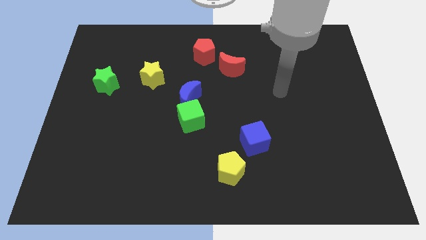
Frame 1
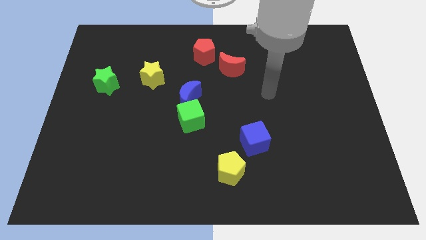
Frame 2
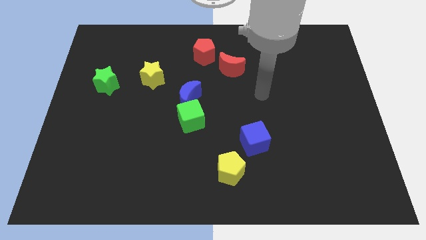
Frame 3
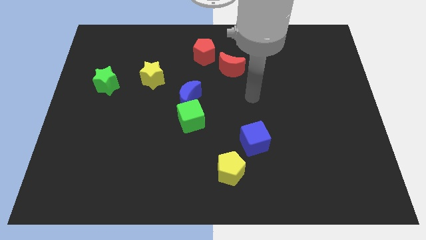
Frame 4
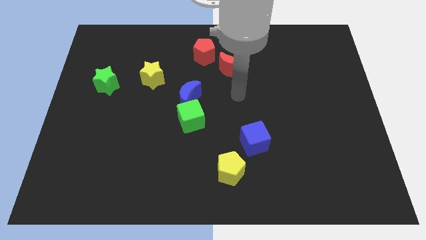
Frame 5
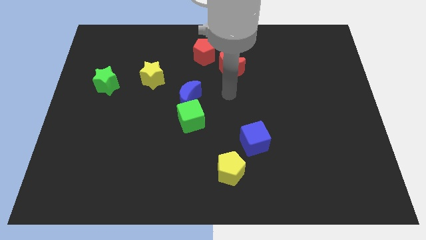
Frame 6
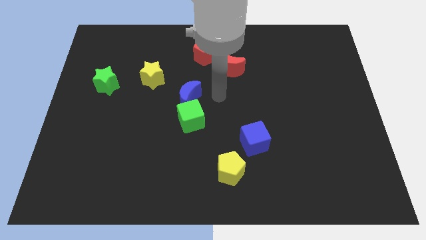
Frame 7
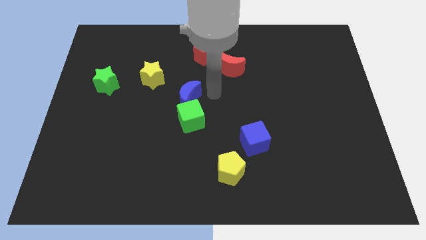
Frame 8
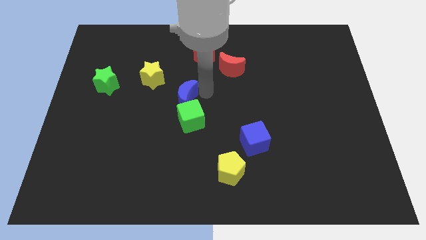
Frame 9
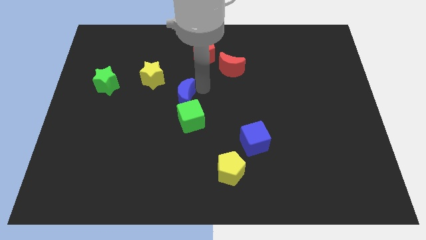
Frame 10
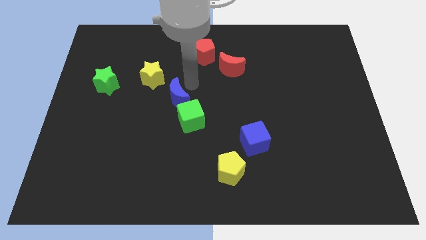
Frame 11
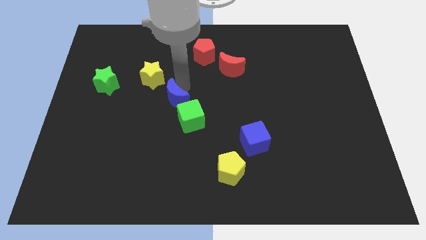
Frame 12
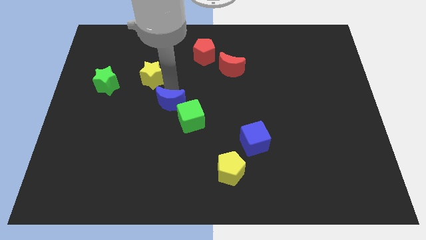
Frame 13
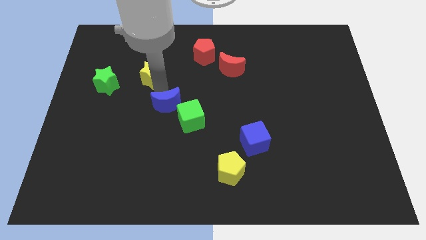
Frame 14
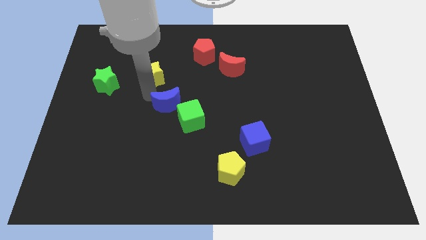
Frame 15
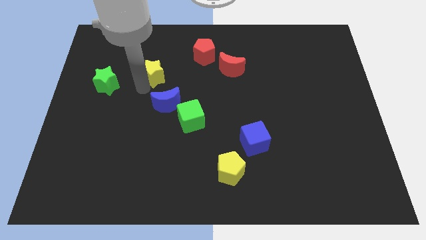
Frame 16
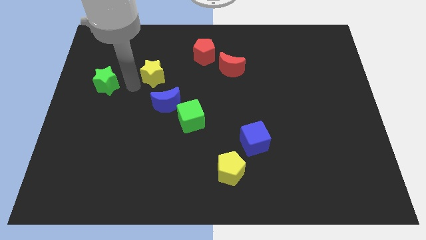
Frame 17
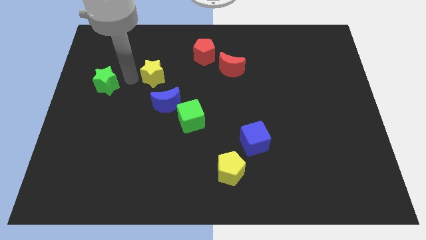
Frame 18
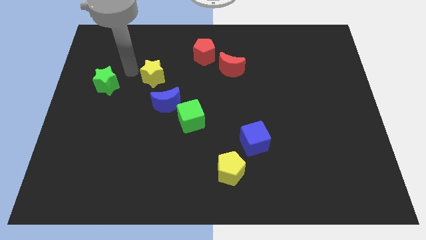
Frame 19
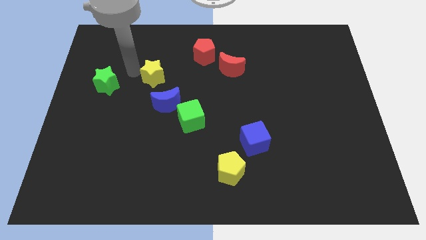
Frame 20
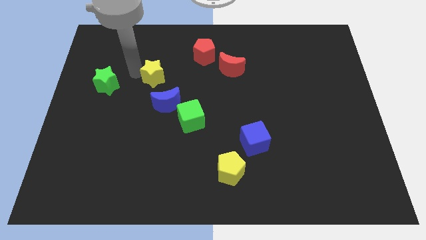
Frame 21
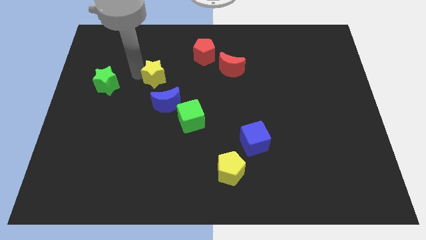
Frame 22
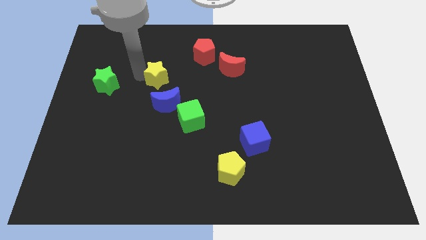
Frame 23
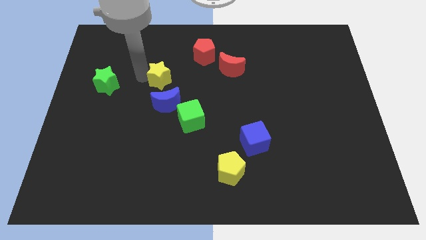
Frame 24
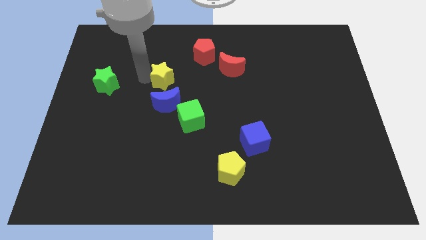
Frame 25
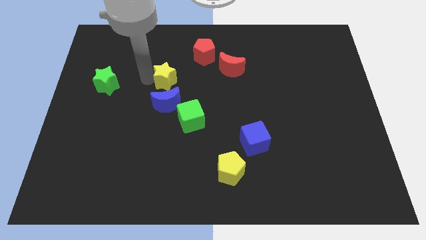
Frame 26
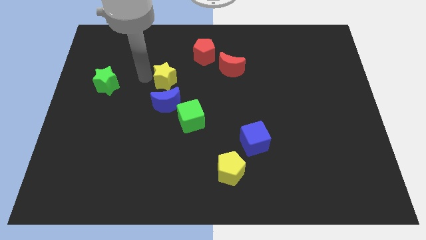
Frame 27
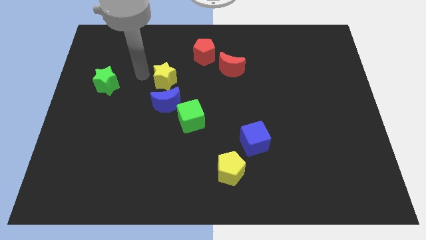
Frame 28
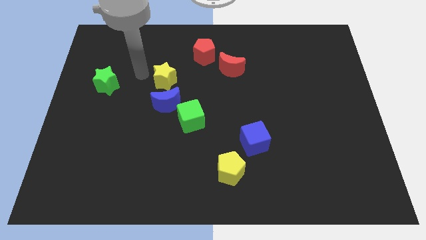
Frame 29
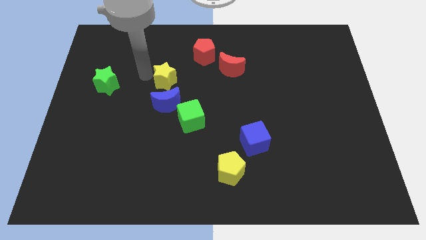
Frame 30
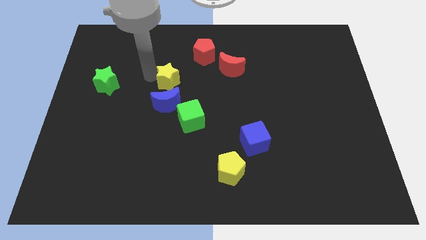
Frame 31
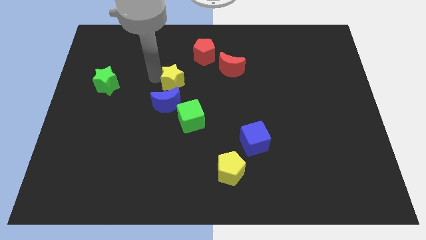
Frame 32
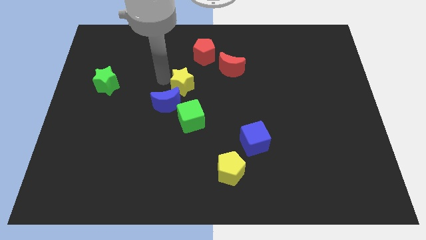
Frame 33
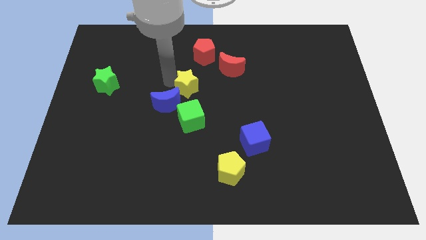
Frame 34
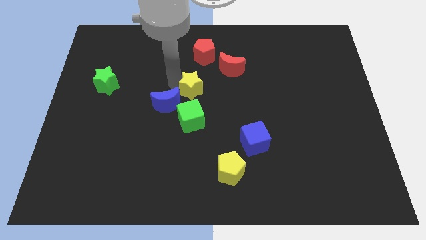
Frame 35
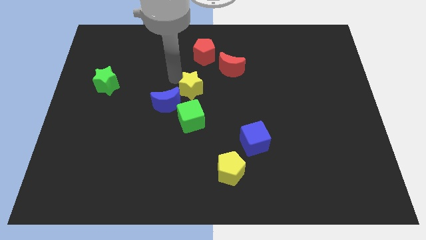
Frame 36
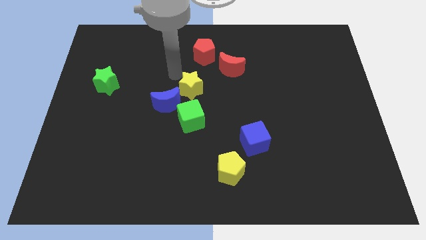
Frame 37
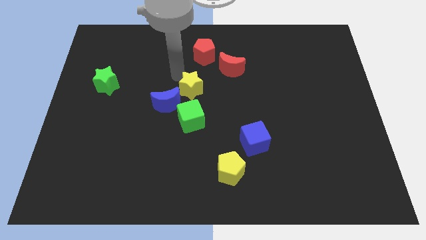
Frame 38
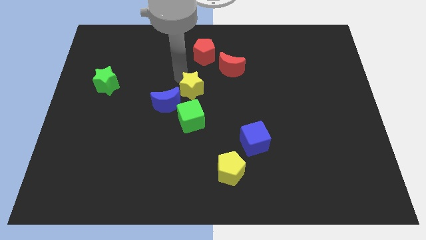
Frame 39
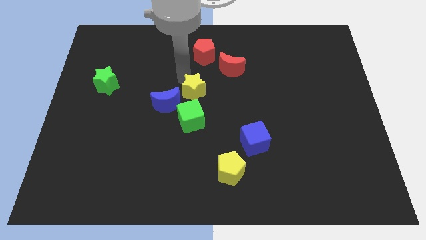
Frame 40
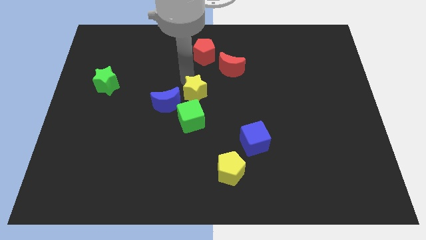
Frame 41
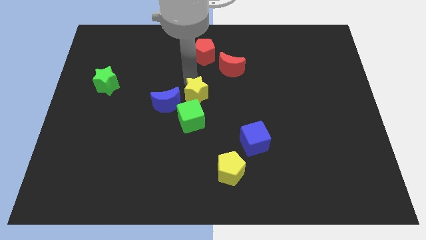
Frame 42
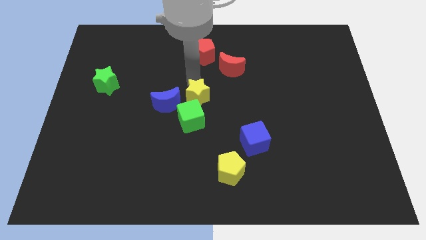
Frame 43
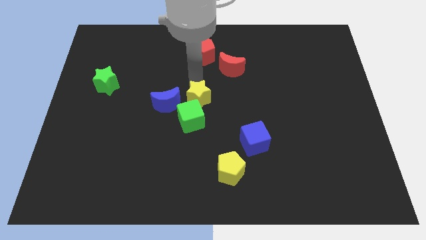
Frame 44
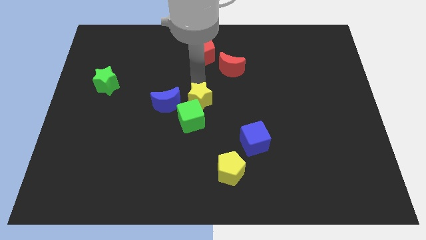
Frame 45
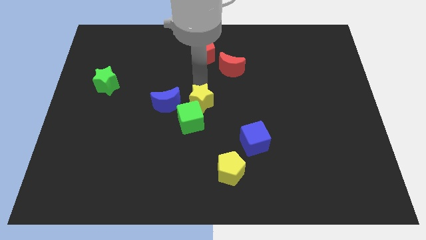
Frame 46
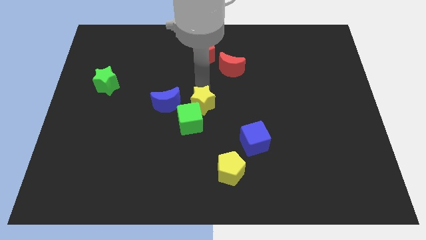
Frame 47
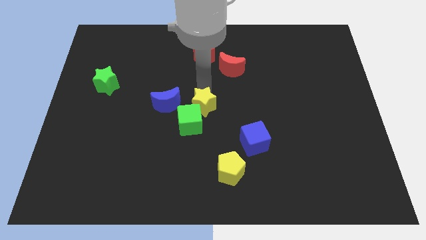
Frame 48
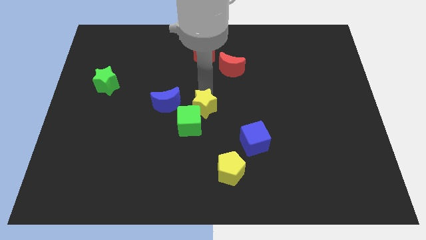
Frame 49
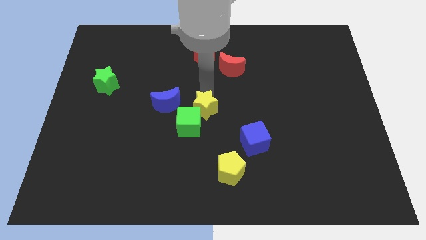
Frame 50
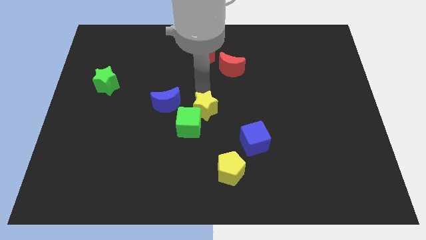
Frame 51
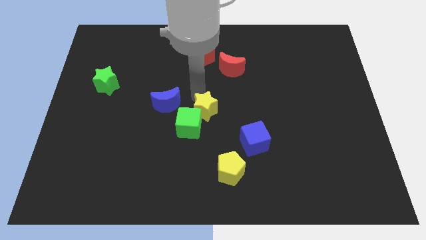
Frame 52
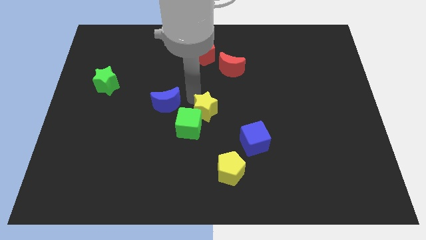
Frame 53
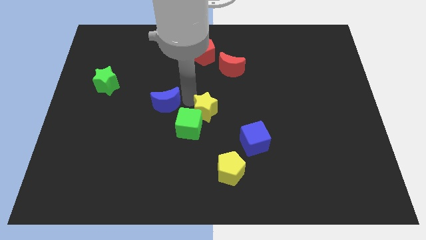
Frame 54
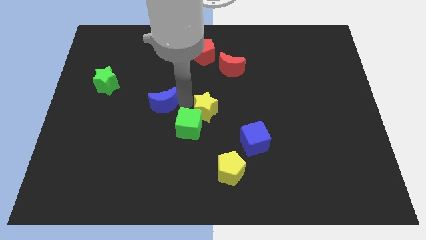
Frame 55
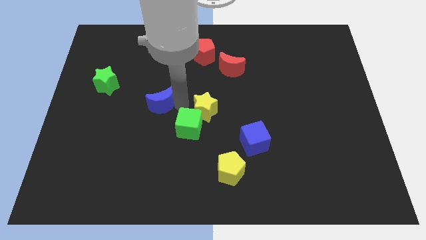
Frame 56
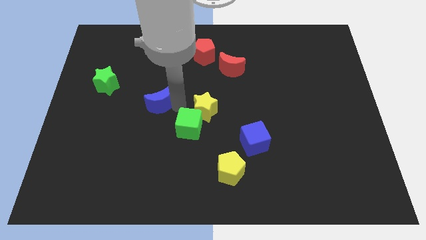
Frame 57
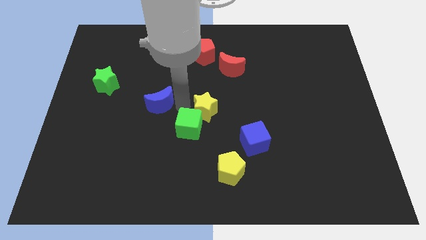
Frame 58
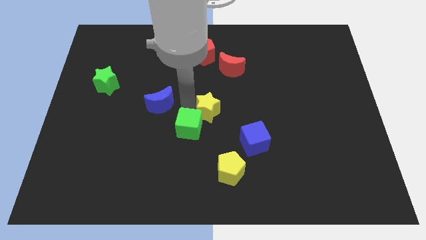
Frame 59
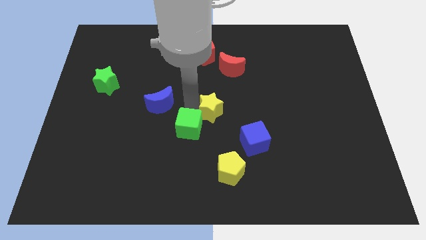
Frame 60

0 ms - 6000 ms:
put the yellow star to the top left side of the blue cube

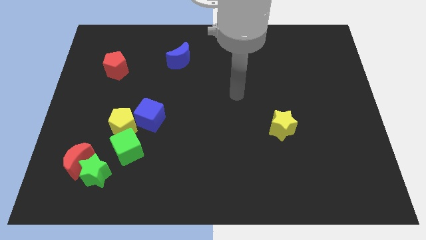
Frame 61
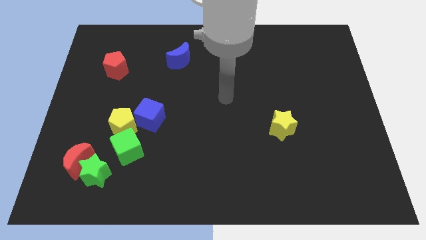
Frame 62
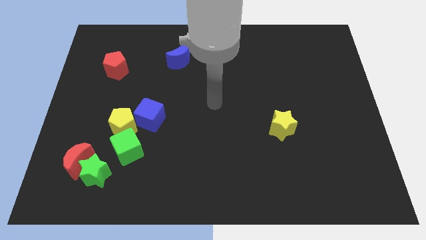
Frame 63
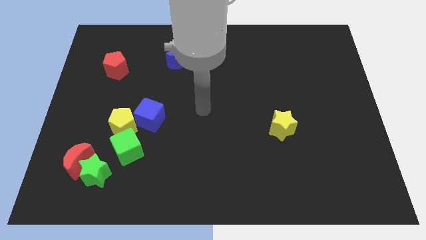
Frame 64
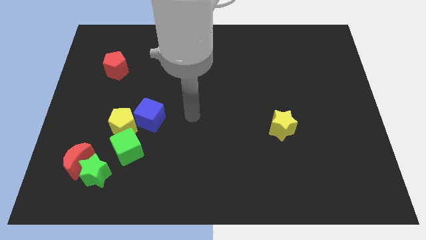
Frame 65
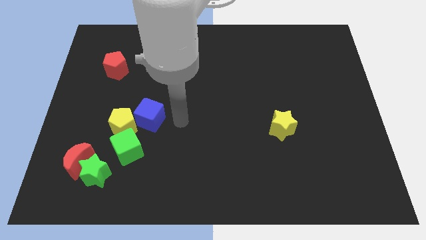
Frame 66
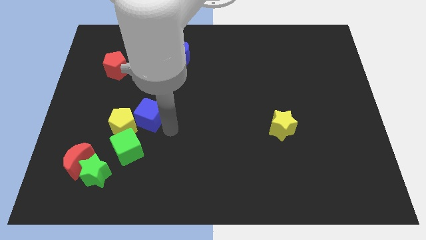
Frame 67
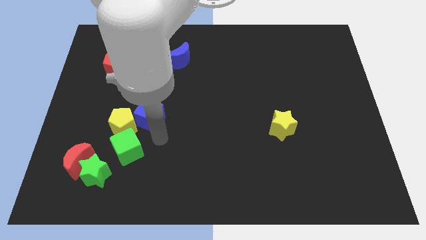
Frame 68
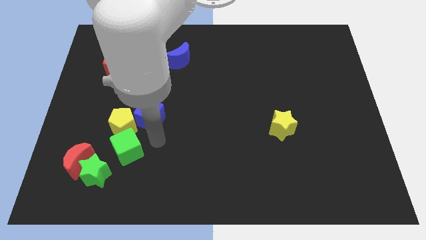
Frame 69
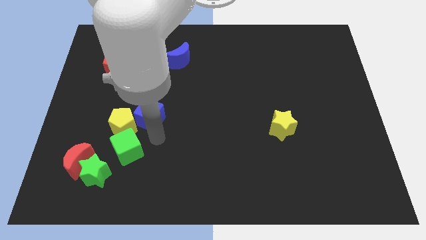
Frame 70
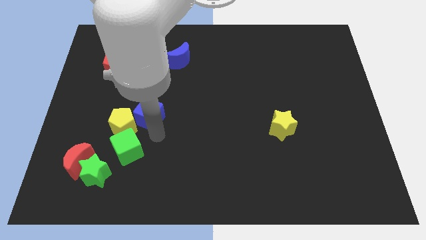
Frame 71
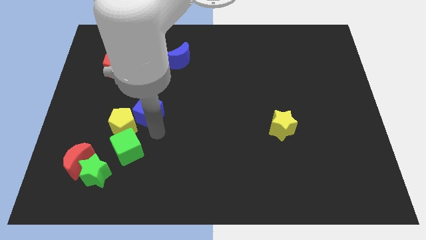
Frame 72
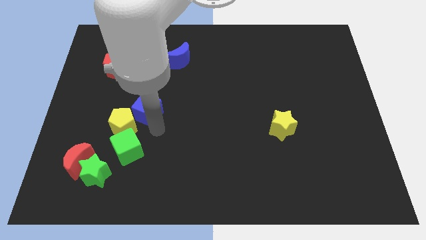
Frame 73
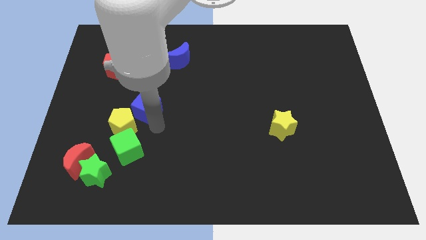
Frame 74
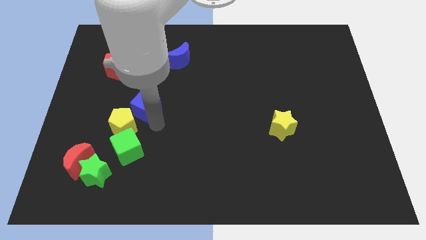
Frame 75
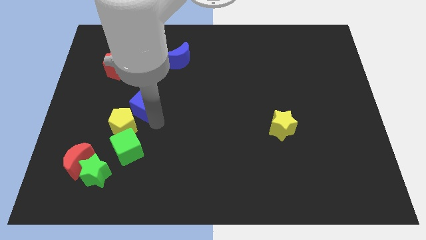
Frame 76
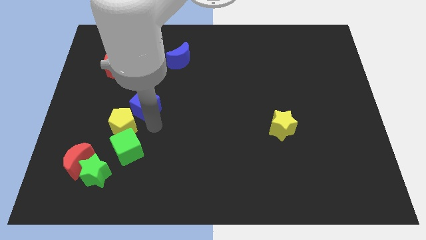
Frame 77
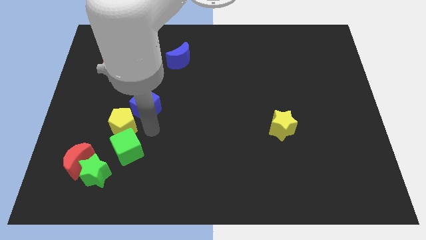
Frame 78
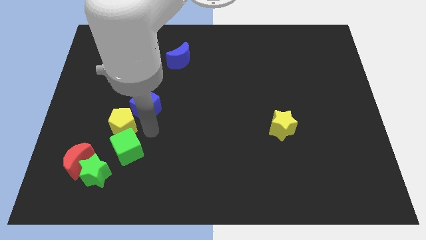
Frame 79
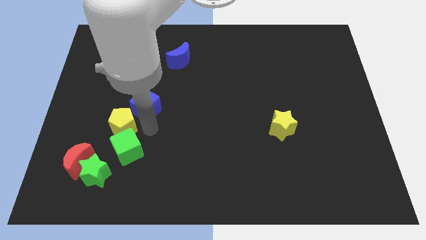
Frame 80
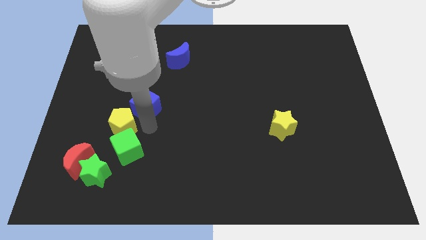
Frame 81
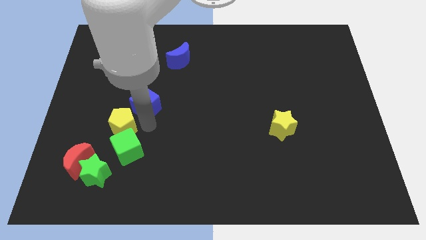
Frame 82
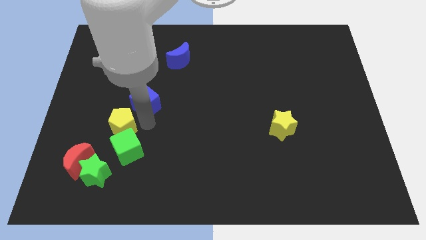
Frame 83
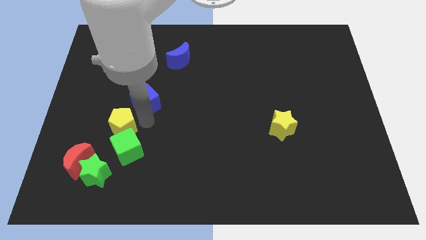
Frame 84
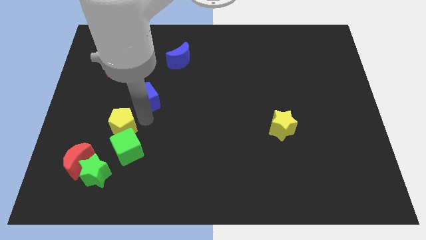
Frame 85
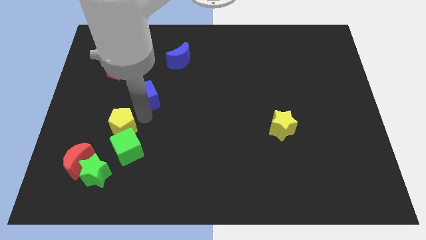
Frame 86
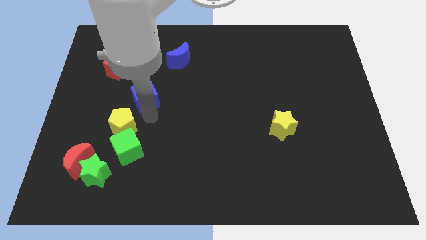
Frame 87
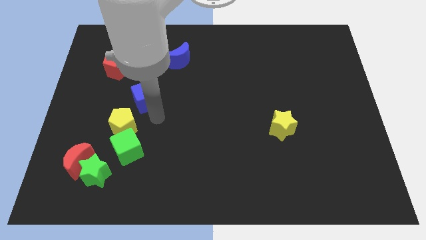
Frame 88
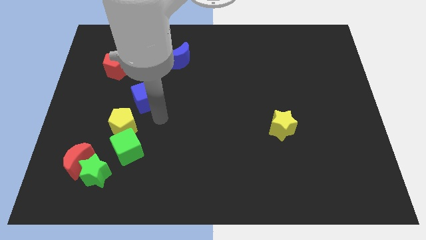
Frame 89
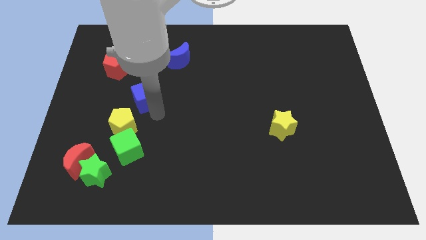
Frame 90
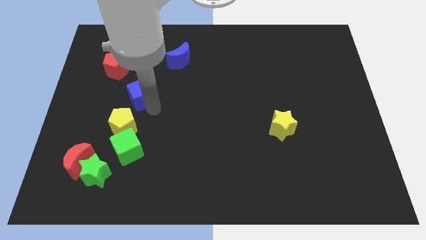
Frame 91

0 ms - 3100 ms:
push the blue cube to the bottom right of the red pentagon
